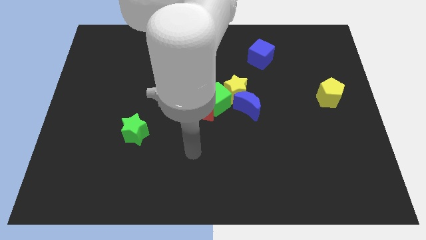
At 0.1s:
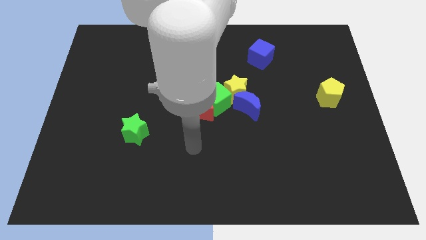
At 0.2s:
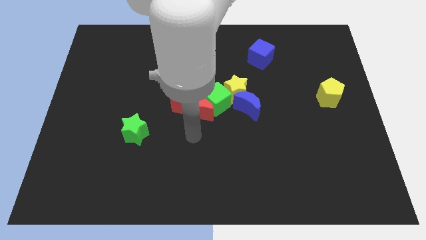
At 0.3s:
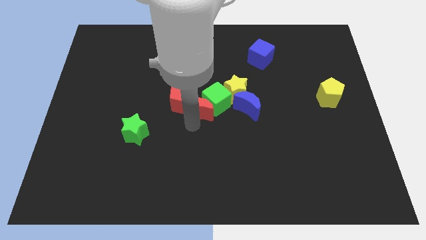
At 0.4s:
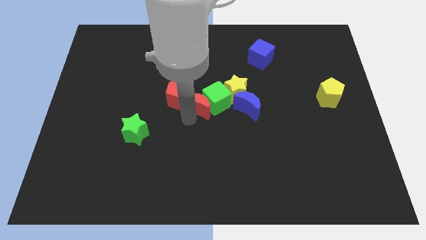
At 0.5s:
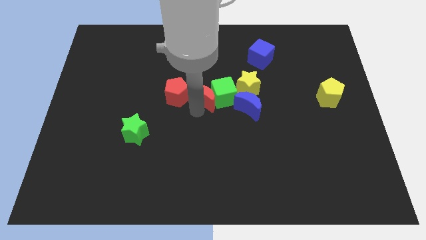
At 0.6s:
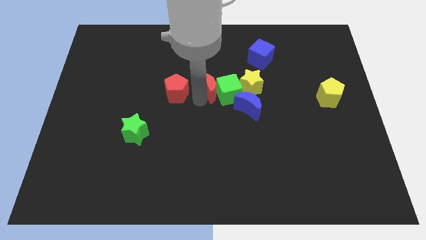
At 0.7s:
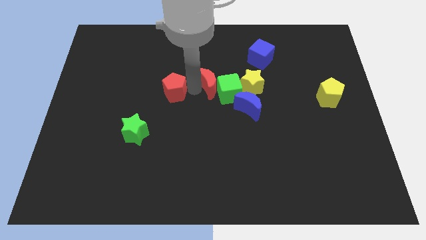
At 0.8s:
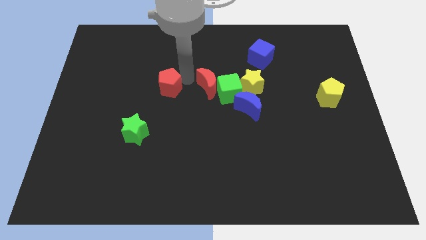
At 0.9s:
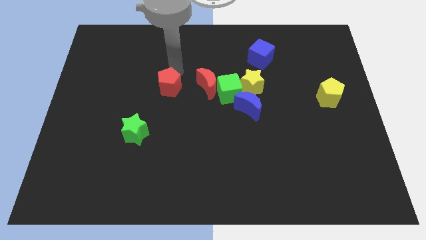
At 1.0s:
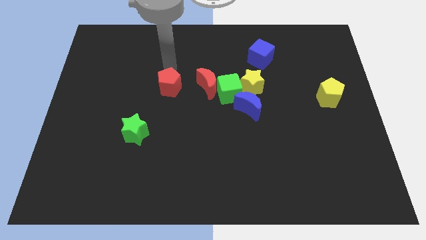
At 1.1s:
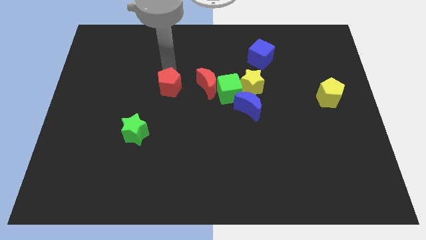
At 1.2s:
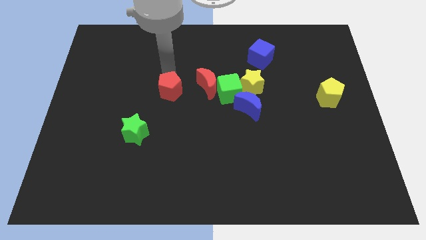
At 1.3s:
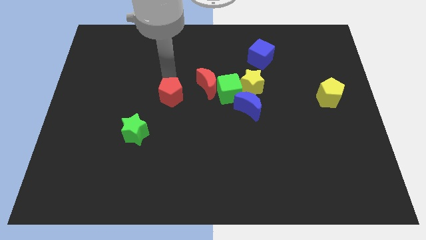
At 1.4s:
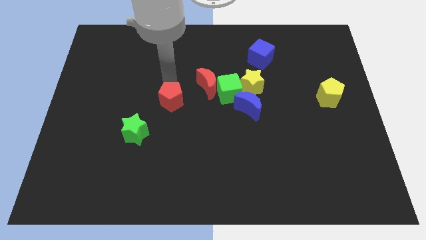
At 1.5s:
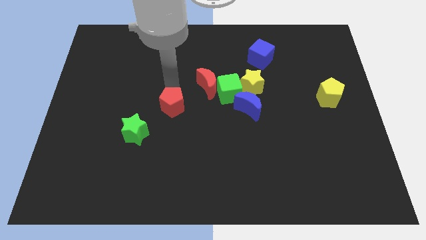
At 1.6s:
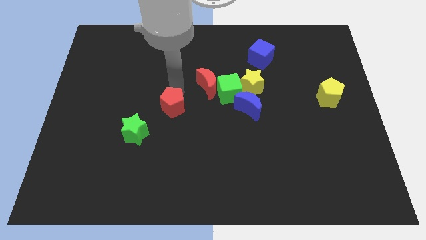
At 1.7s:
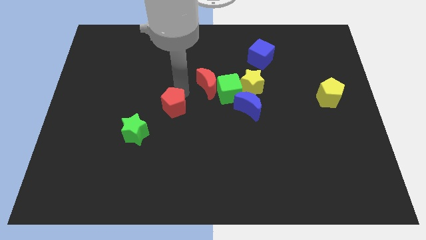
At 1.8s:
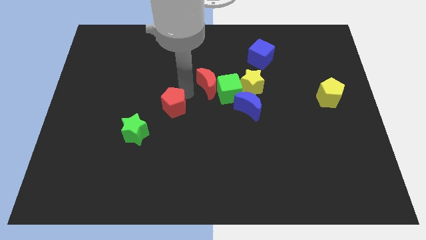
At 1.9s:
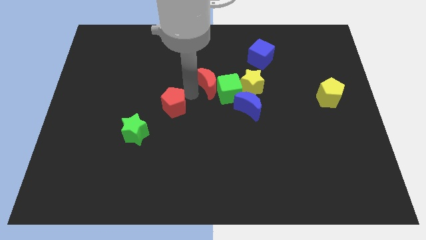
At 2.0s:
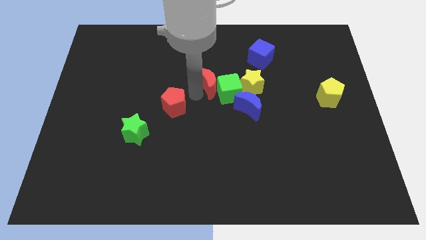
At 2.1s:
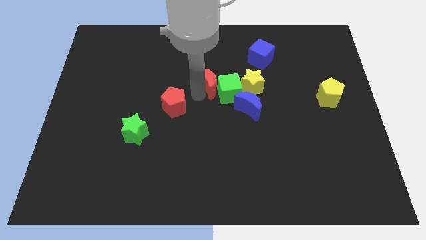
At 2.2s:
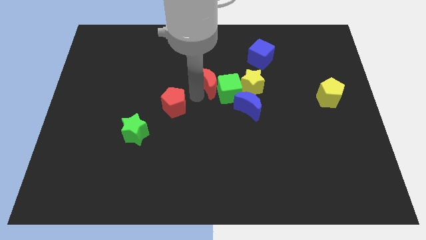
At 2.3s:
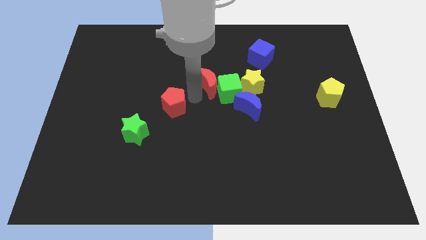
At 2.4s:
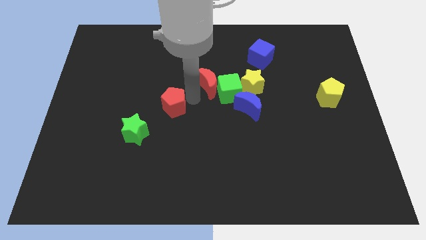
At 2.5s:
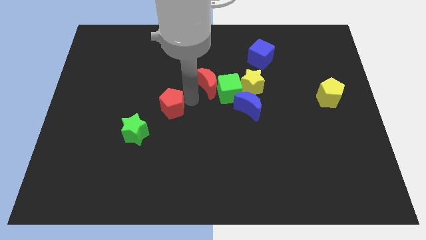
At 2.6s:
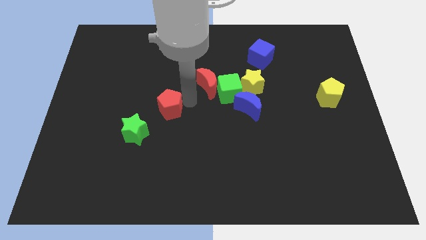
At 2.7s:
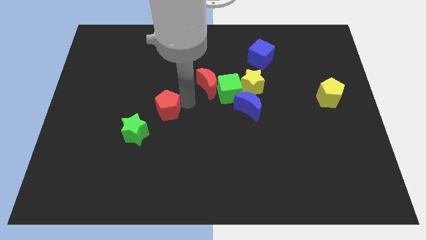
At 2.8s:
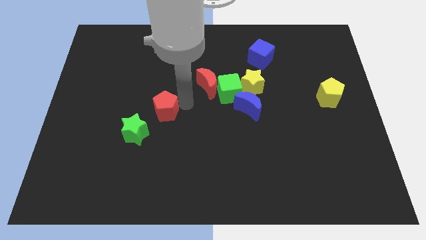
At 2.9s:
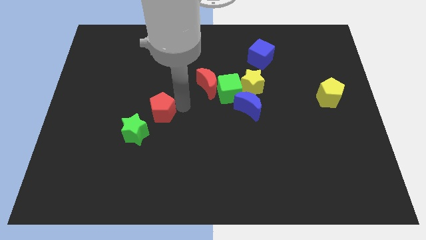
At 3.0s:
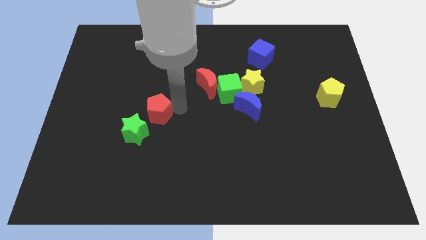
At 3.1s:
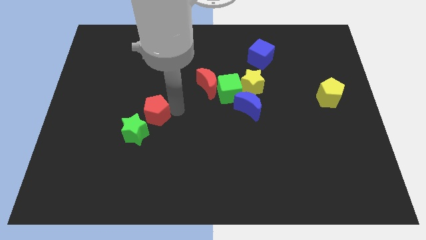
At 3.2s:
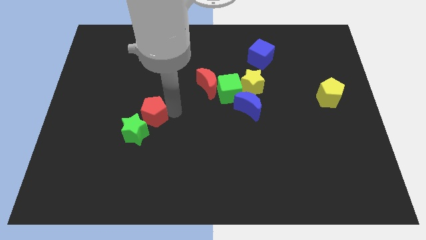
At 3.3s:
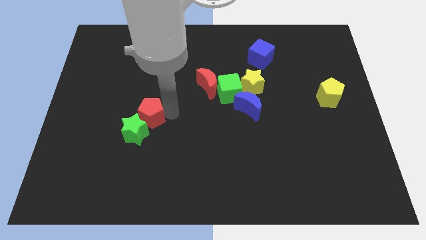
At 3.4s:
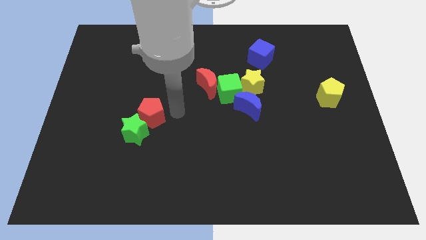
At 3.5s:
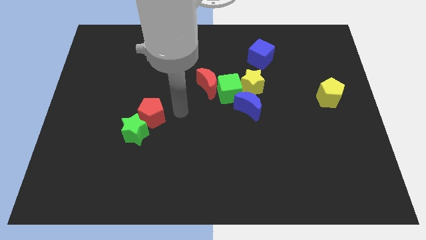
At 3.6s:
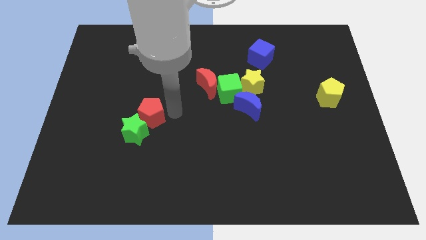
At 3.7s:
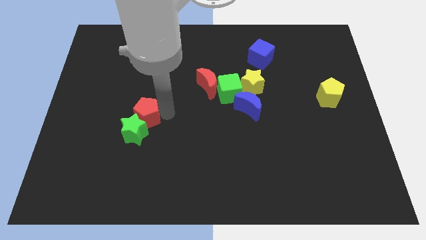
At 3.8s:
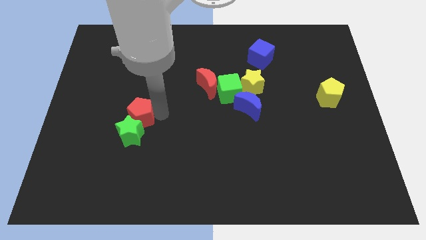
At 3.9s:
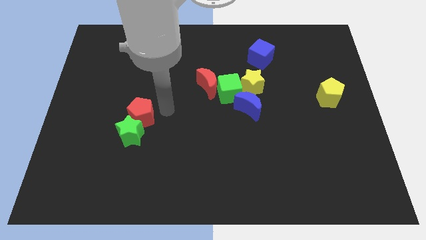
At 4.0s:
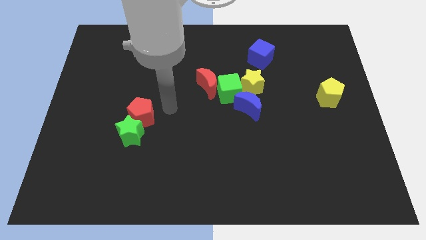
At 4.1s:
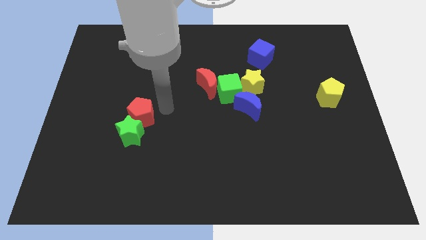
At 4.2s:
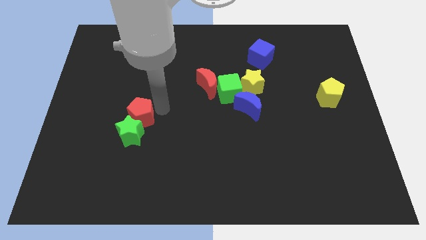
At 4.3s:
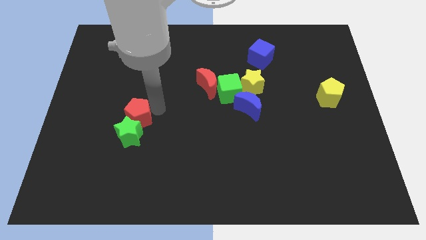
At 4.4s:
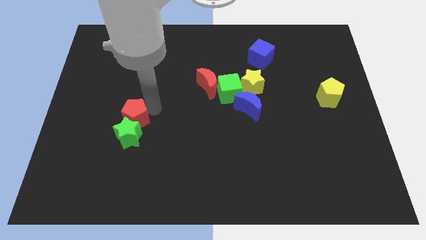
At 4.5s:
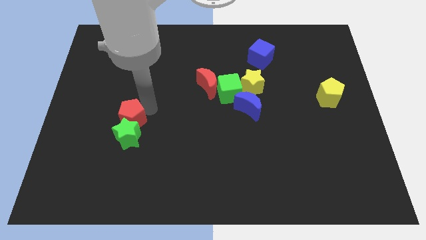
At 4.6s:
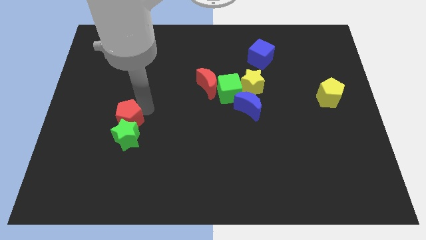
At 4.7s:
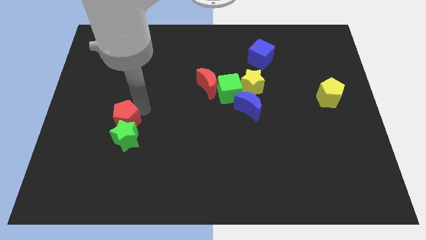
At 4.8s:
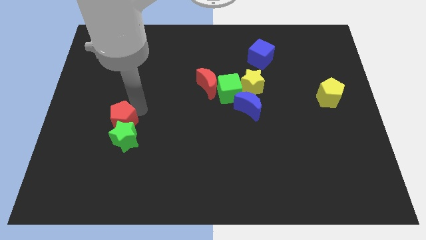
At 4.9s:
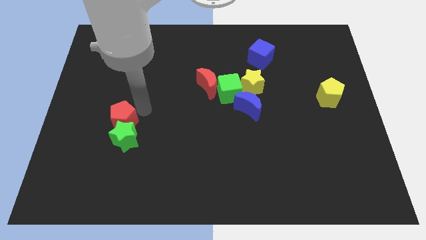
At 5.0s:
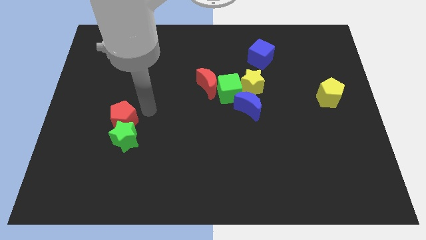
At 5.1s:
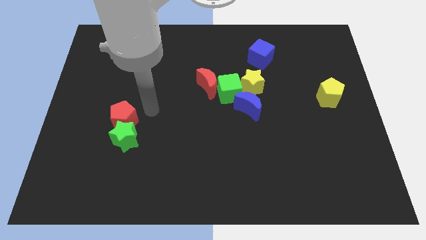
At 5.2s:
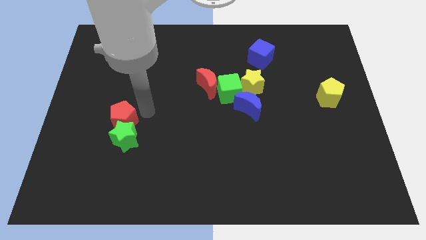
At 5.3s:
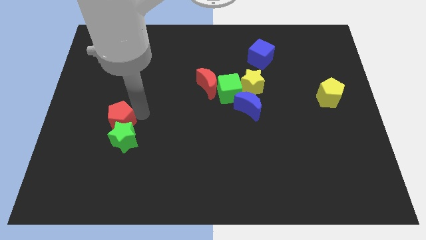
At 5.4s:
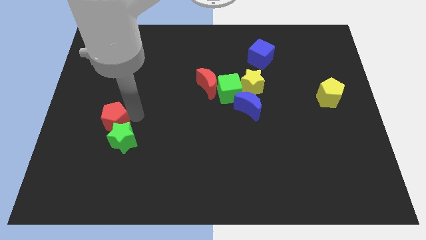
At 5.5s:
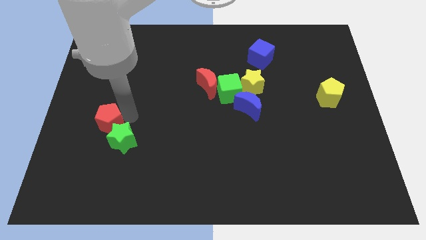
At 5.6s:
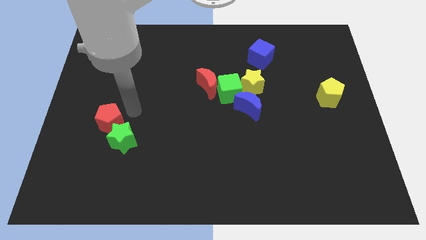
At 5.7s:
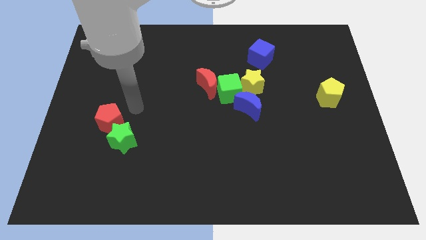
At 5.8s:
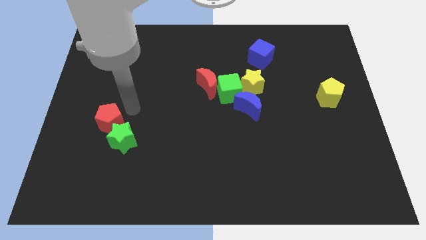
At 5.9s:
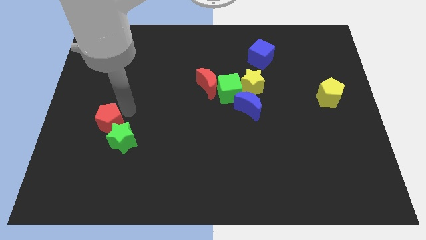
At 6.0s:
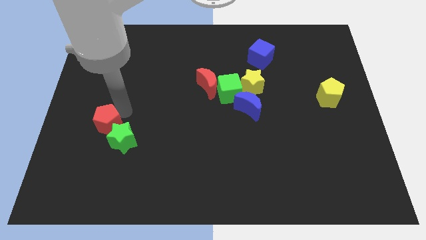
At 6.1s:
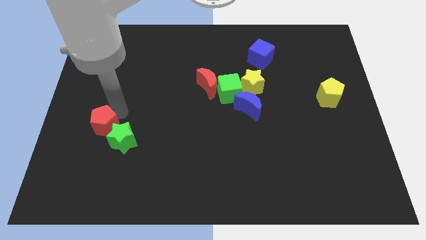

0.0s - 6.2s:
move the red pentagon to the left of the green star
